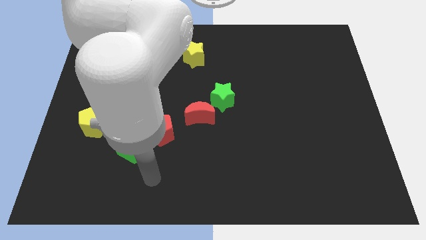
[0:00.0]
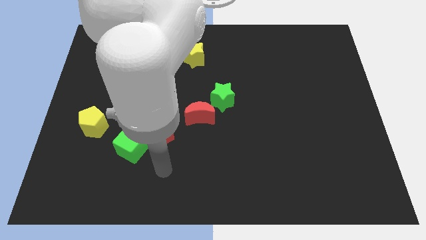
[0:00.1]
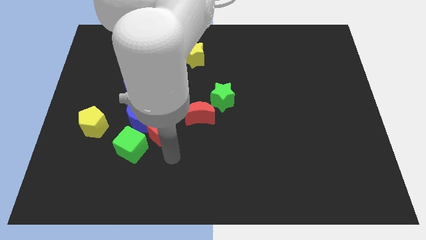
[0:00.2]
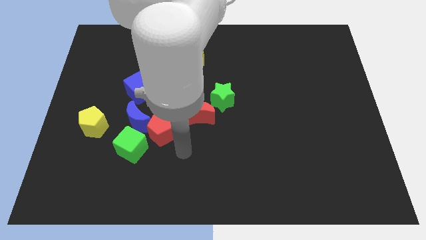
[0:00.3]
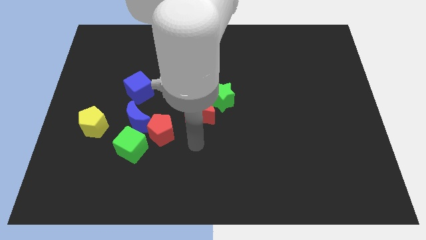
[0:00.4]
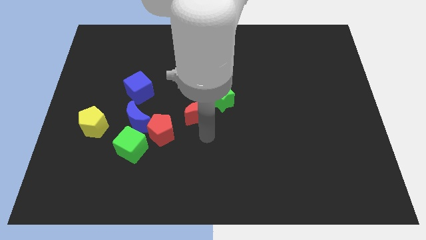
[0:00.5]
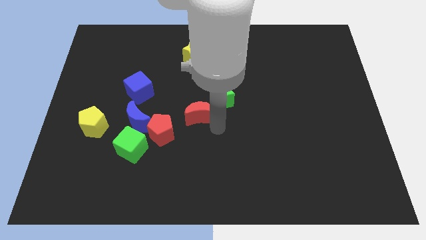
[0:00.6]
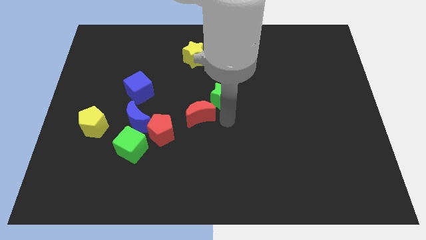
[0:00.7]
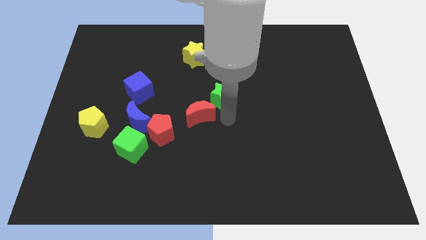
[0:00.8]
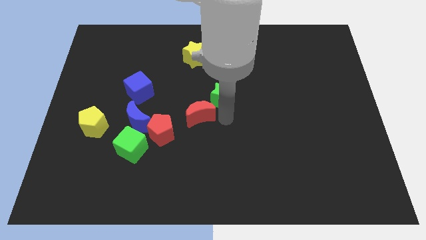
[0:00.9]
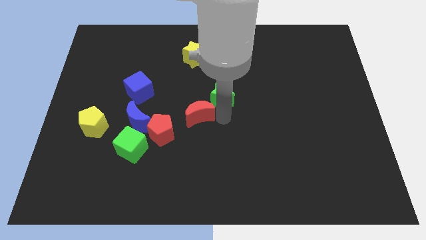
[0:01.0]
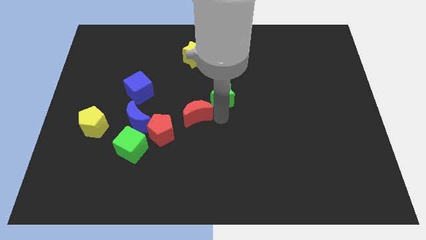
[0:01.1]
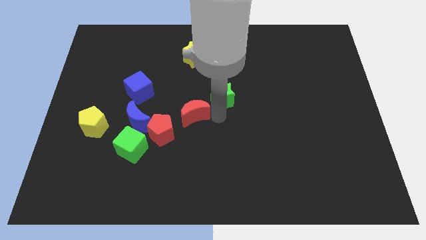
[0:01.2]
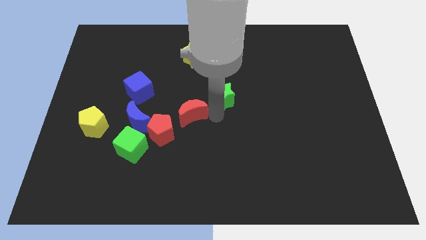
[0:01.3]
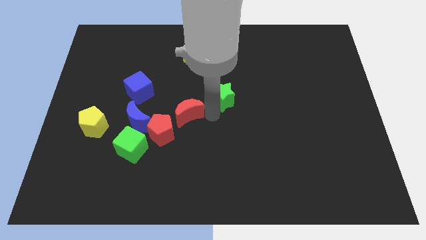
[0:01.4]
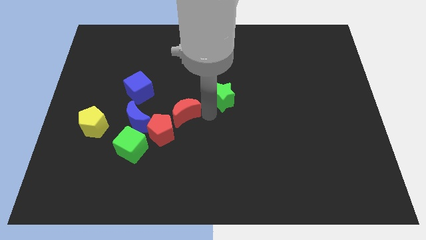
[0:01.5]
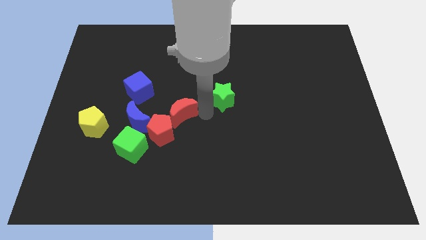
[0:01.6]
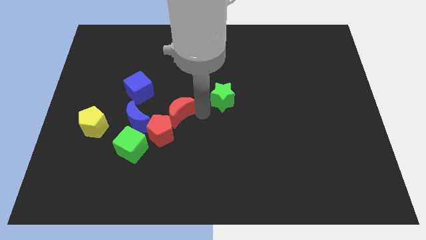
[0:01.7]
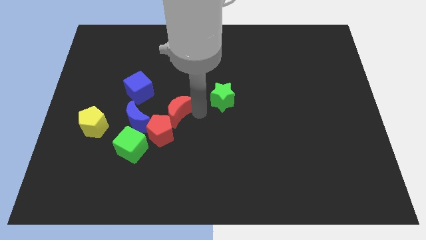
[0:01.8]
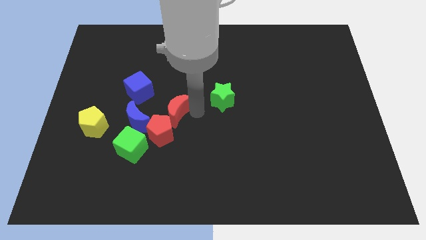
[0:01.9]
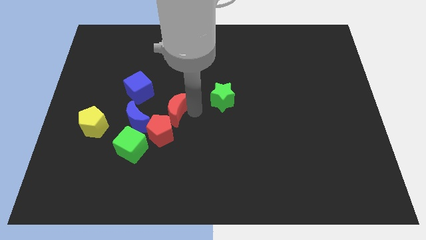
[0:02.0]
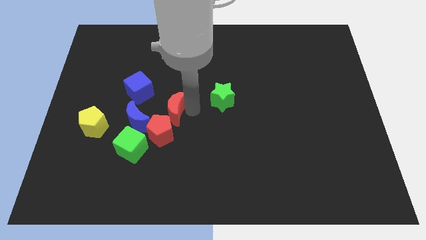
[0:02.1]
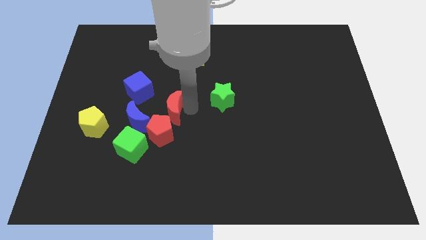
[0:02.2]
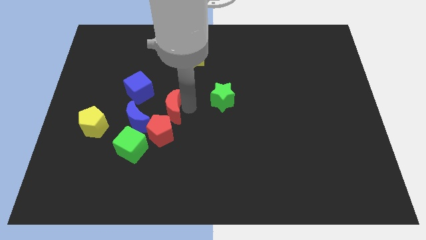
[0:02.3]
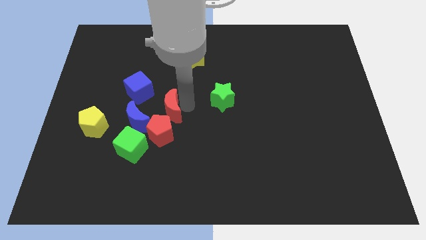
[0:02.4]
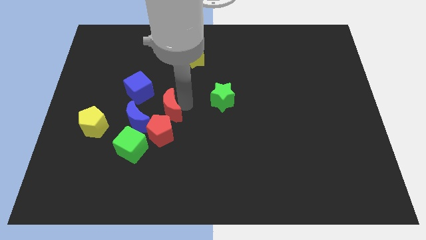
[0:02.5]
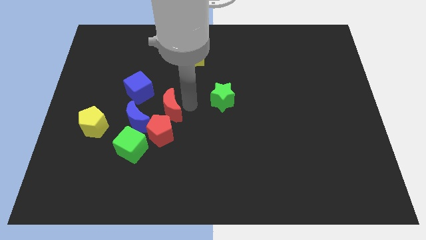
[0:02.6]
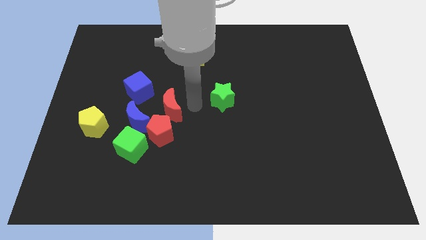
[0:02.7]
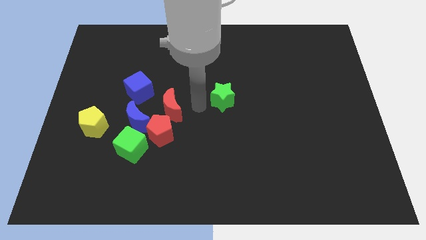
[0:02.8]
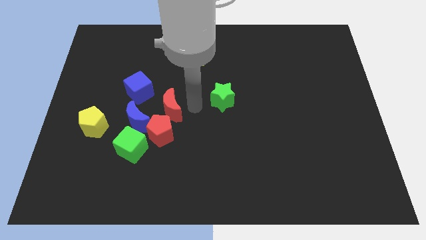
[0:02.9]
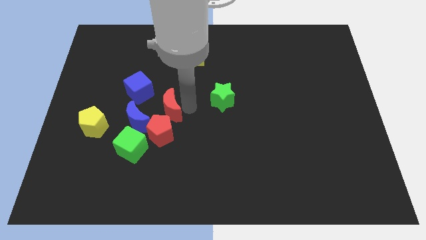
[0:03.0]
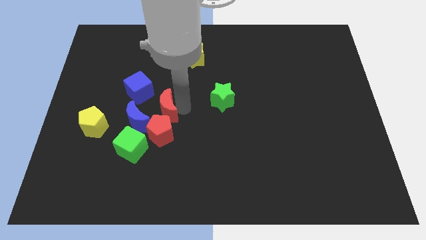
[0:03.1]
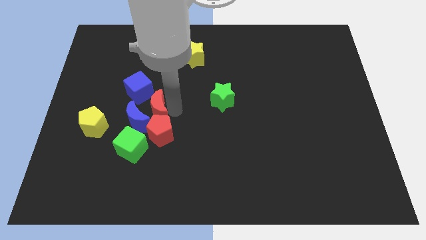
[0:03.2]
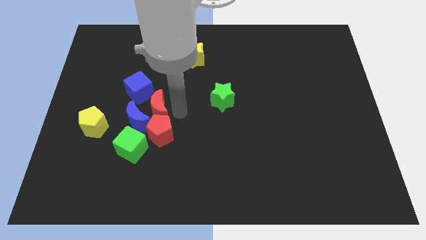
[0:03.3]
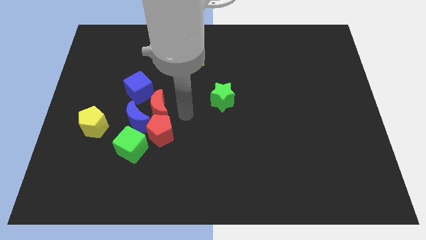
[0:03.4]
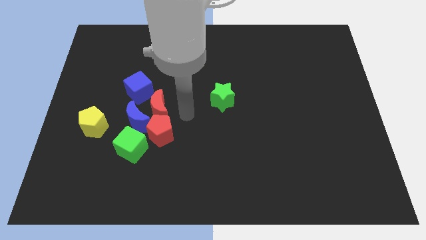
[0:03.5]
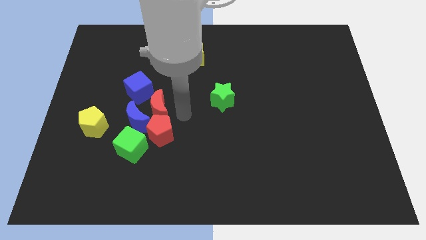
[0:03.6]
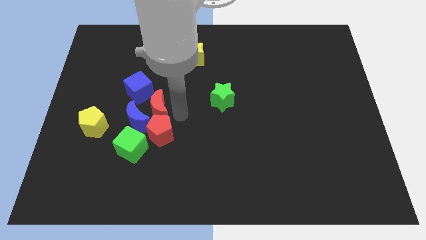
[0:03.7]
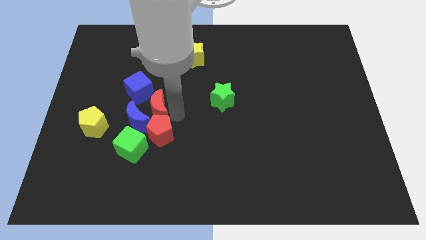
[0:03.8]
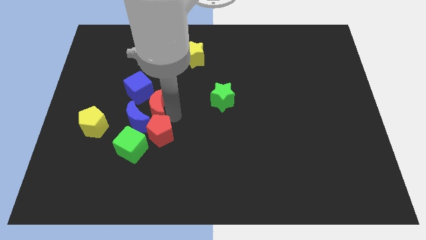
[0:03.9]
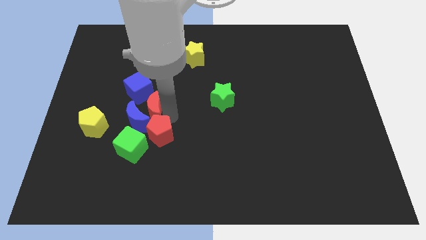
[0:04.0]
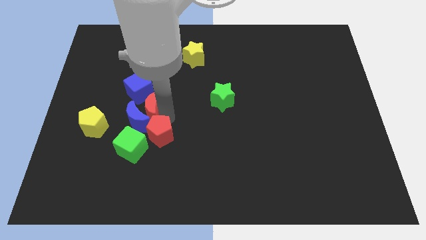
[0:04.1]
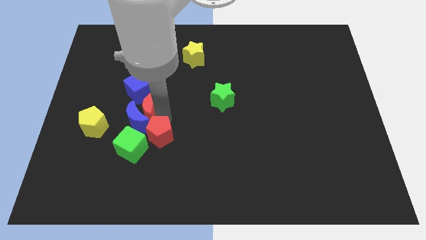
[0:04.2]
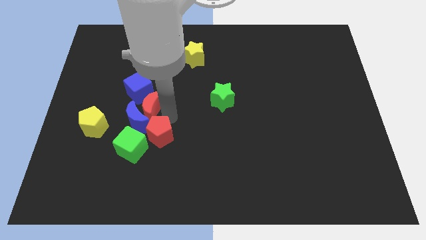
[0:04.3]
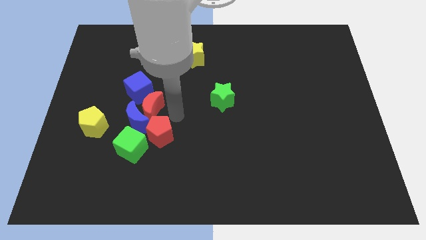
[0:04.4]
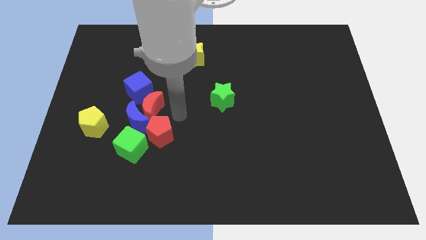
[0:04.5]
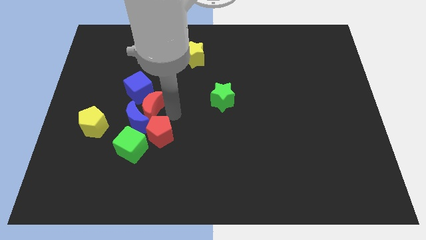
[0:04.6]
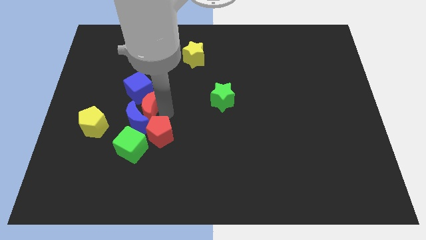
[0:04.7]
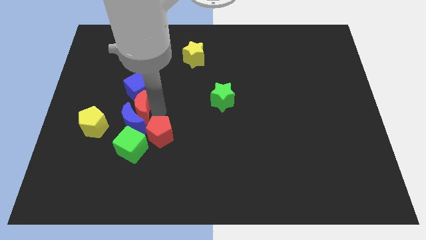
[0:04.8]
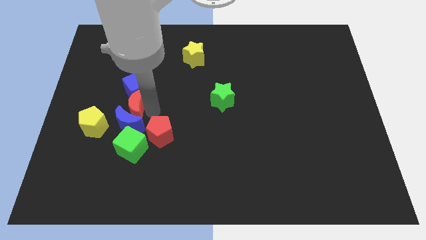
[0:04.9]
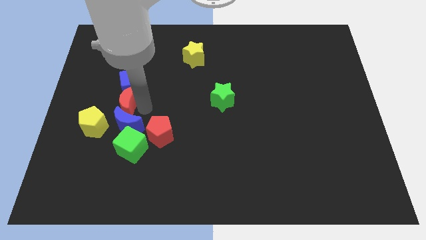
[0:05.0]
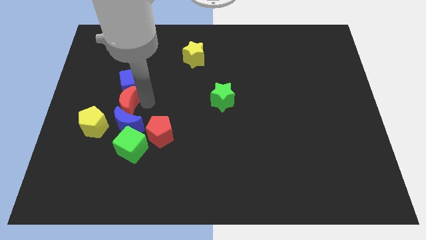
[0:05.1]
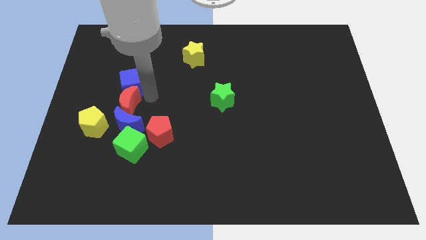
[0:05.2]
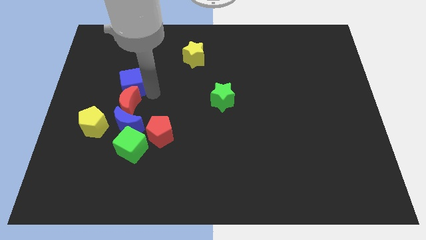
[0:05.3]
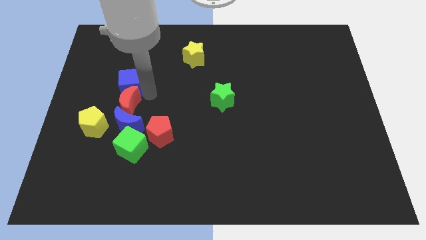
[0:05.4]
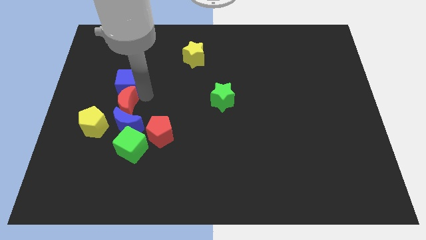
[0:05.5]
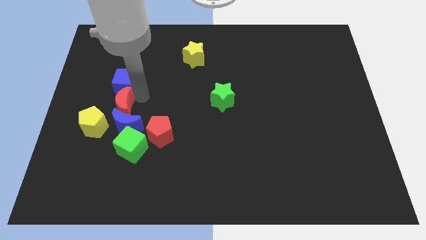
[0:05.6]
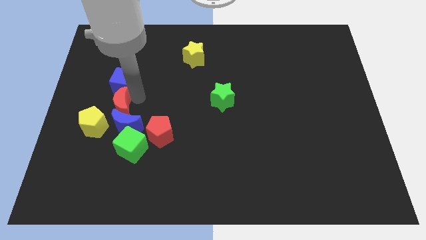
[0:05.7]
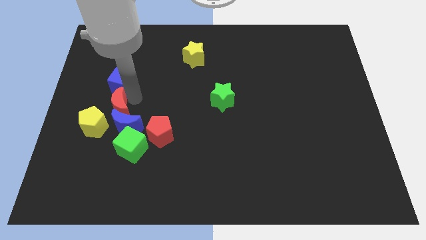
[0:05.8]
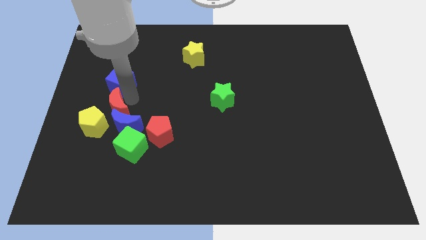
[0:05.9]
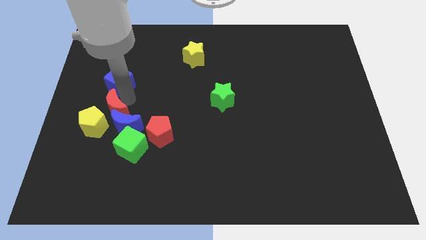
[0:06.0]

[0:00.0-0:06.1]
slide the red moon to the yellow pentagon

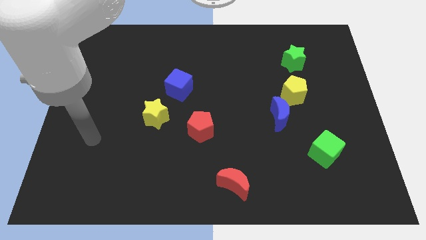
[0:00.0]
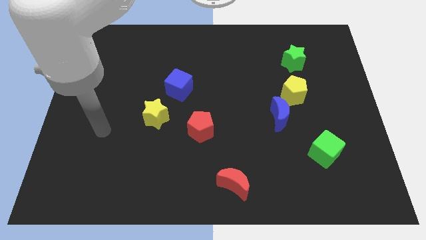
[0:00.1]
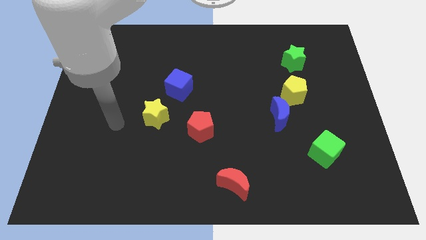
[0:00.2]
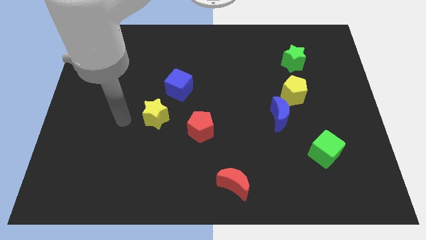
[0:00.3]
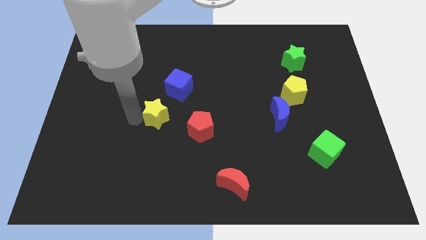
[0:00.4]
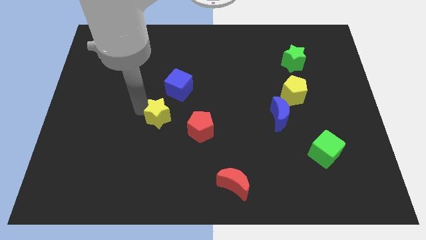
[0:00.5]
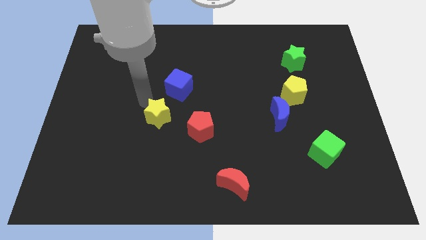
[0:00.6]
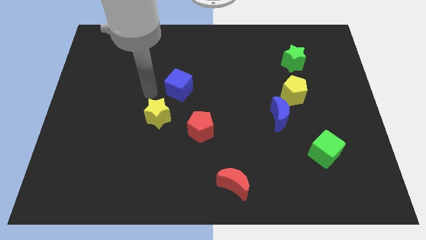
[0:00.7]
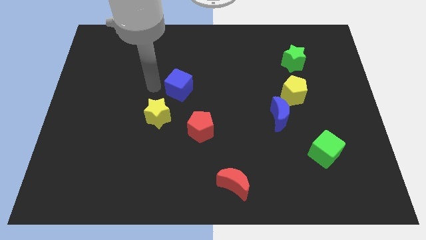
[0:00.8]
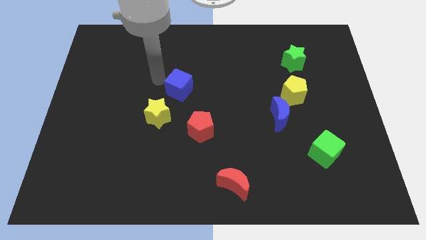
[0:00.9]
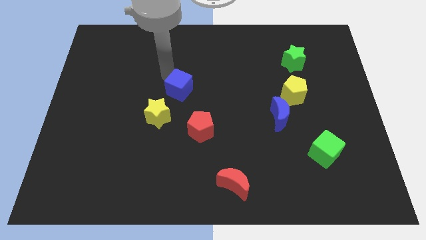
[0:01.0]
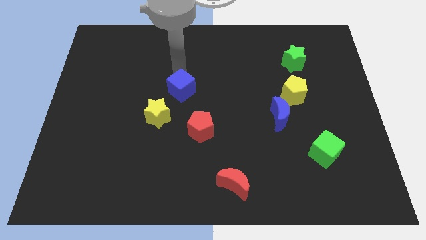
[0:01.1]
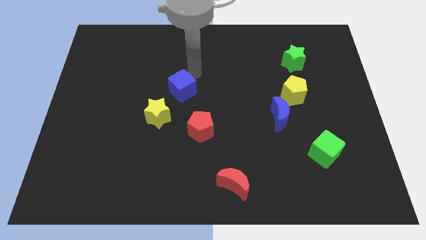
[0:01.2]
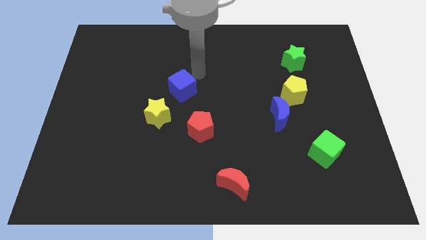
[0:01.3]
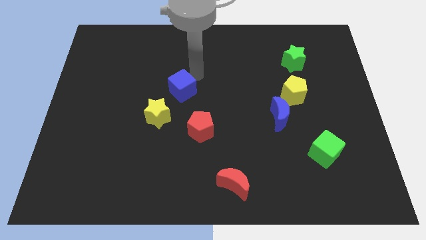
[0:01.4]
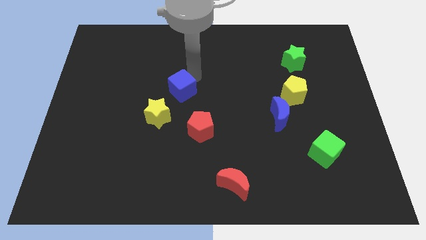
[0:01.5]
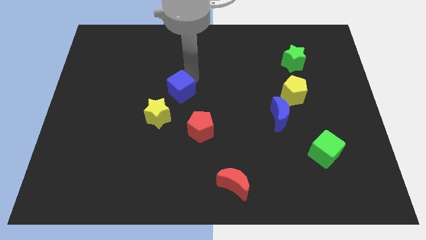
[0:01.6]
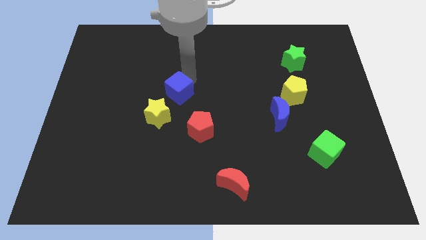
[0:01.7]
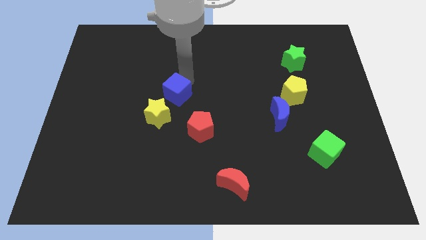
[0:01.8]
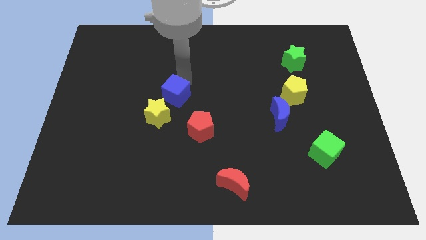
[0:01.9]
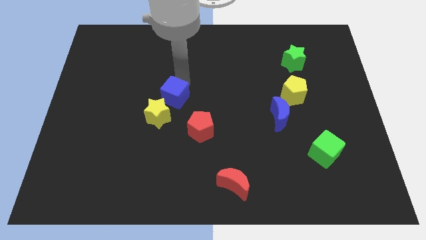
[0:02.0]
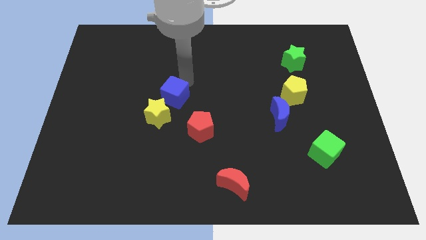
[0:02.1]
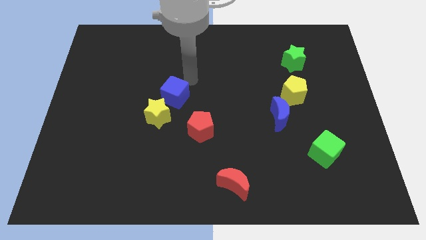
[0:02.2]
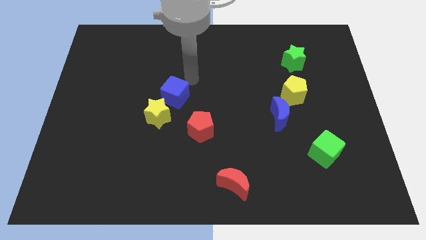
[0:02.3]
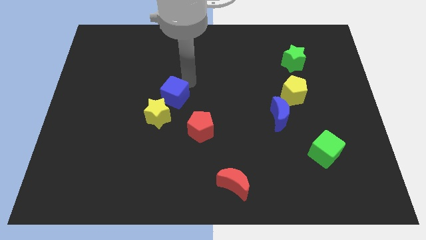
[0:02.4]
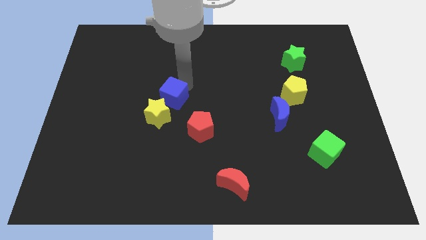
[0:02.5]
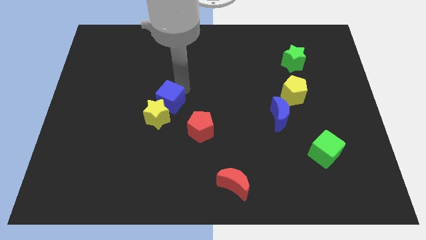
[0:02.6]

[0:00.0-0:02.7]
put the blue cube to the yellow star
